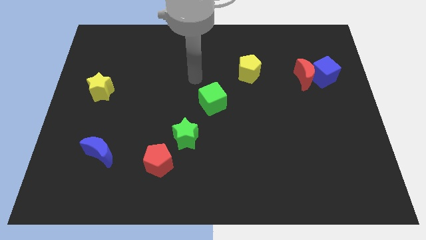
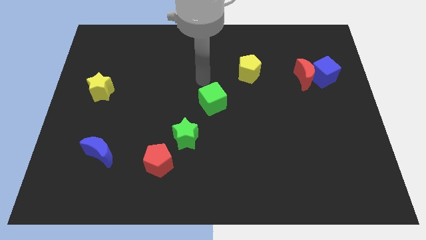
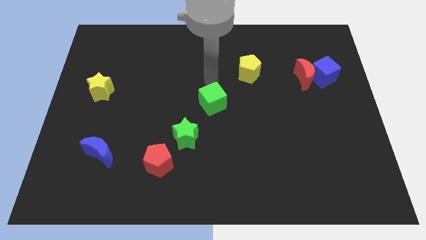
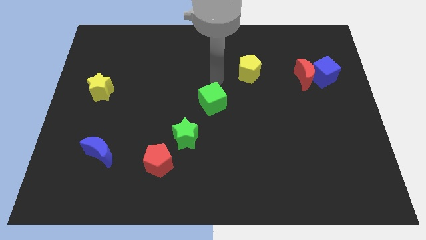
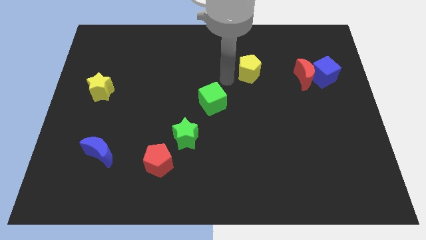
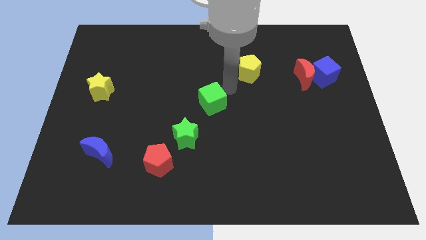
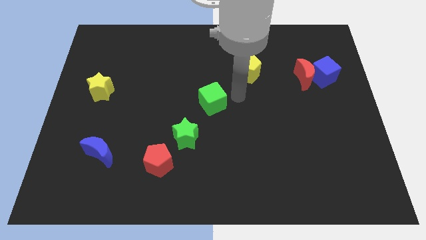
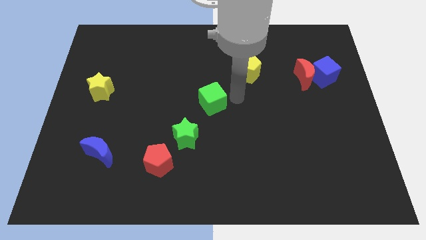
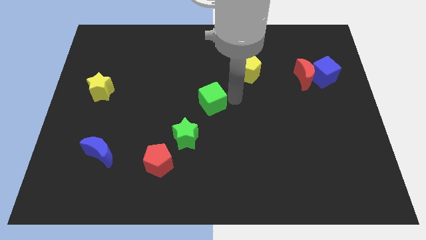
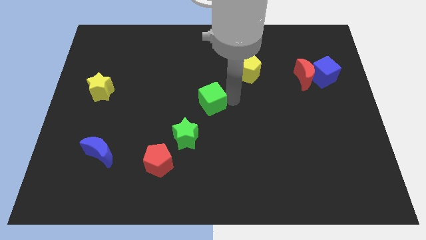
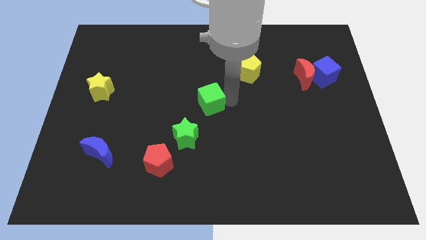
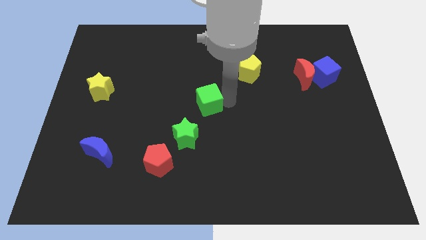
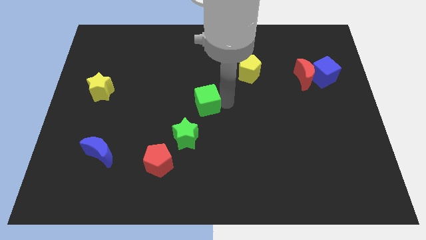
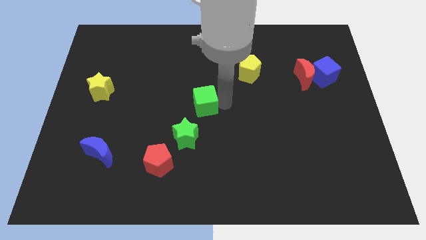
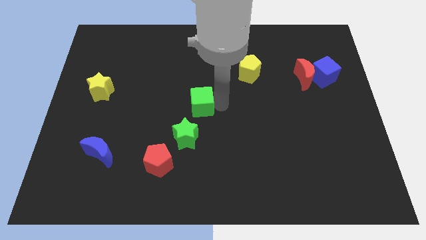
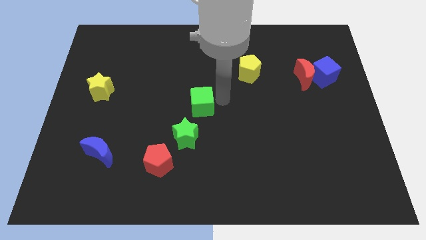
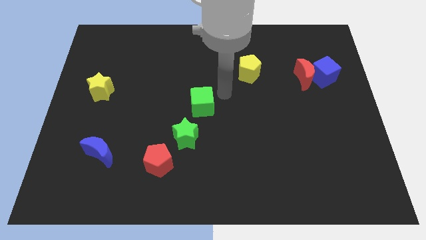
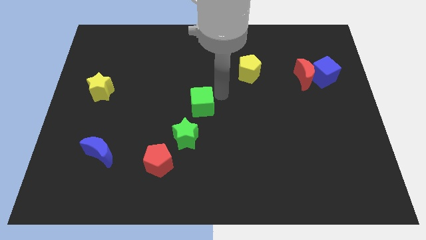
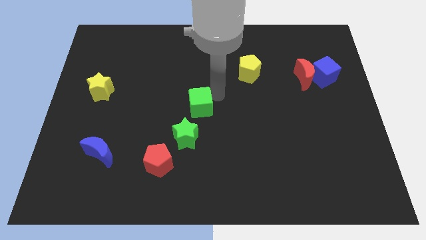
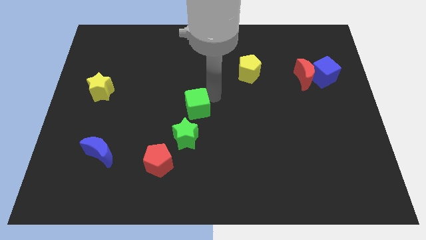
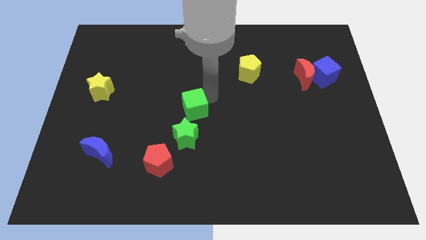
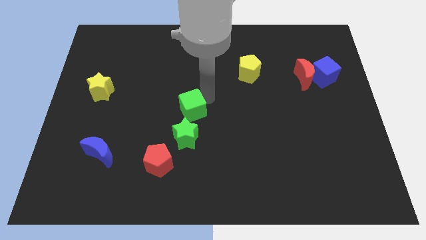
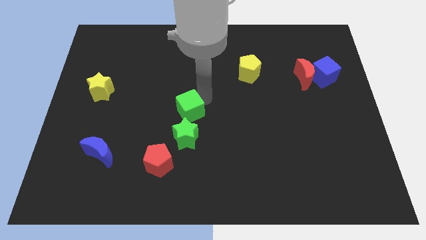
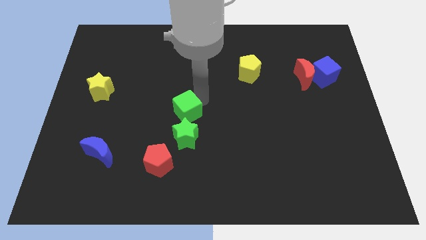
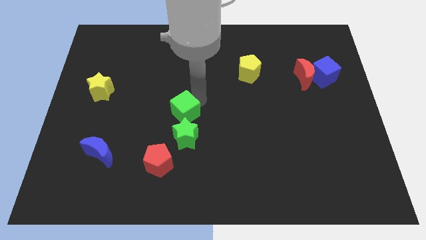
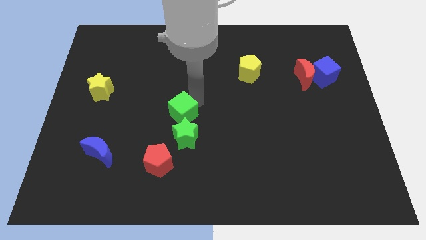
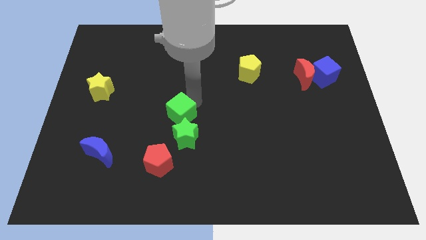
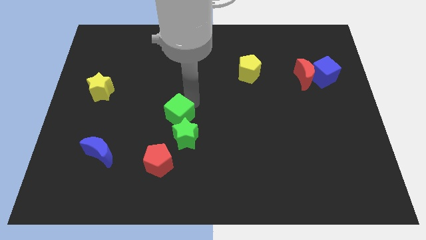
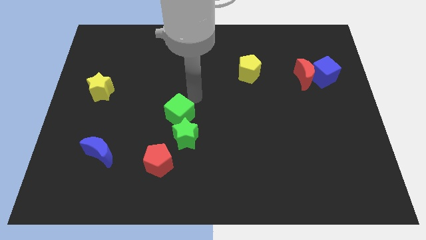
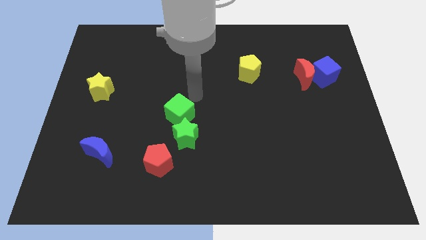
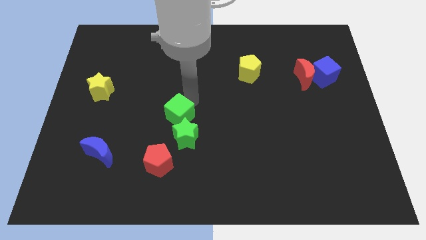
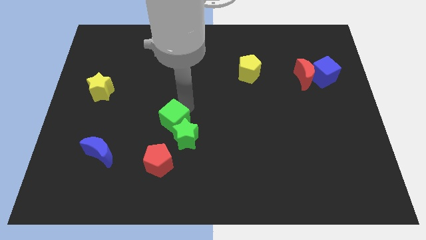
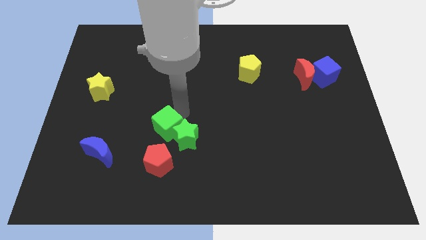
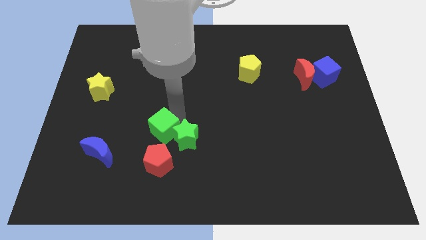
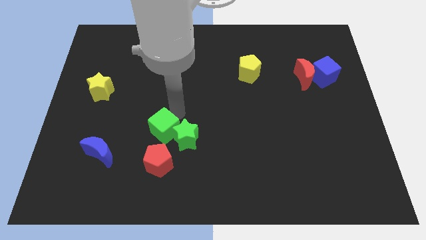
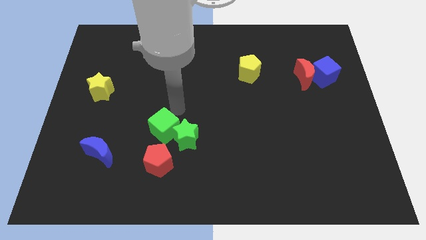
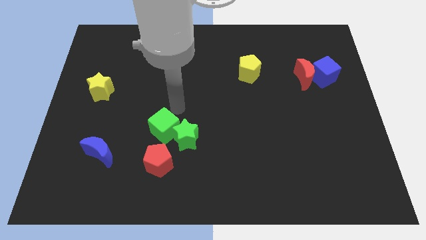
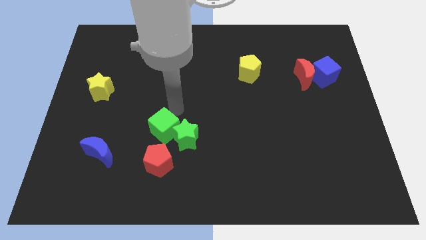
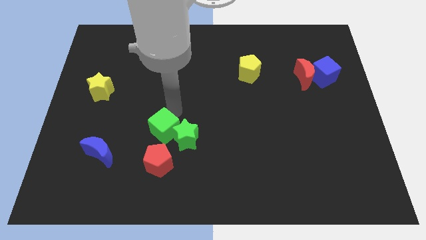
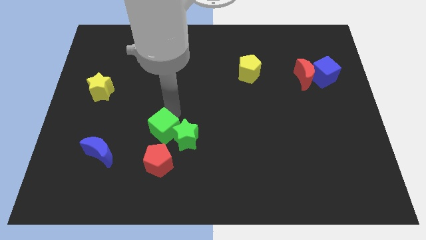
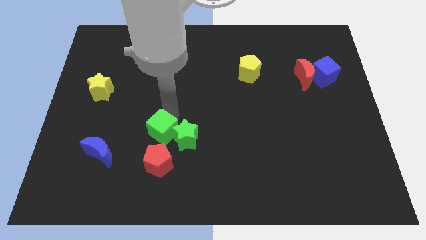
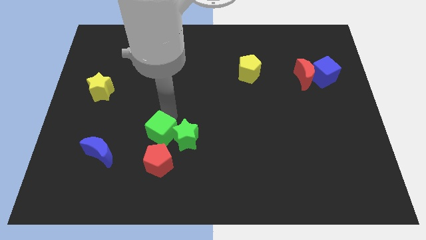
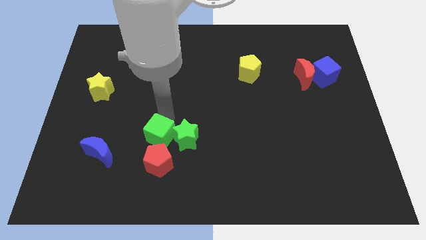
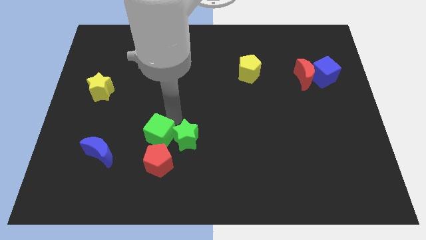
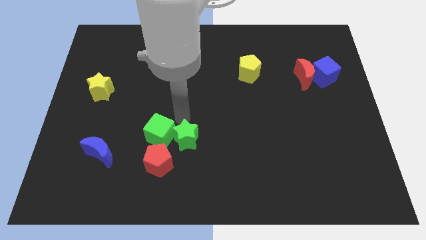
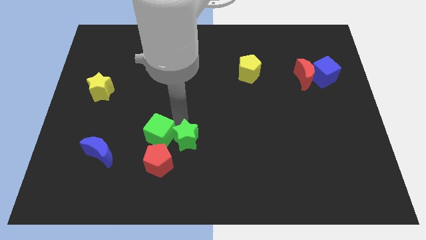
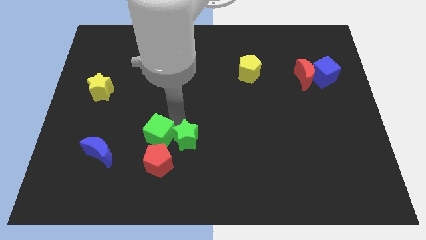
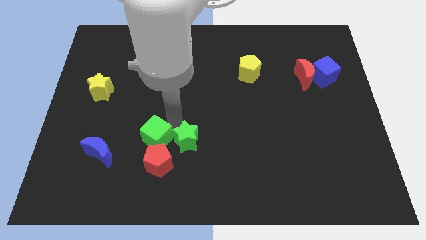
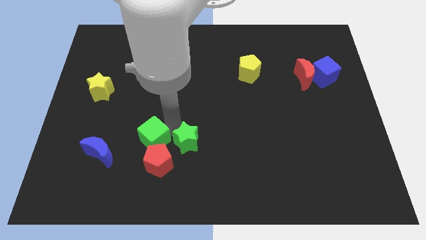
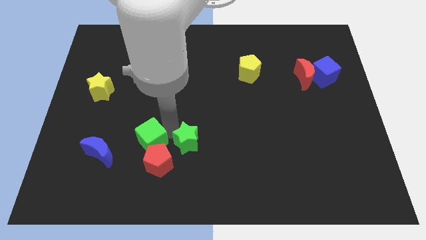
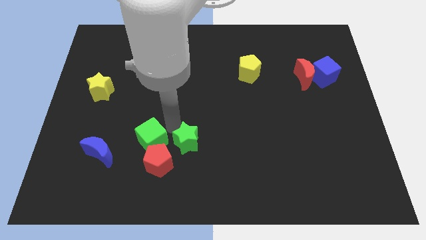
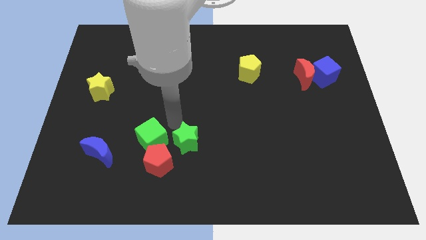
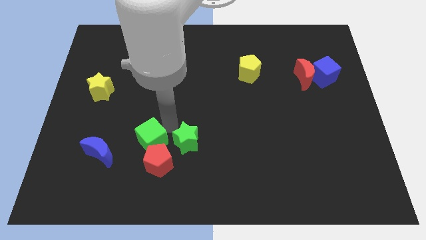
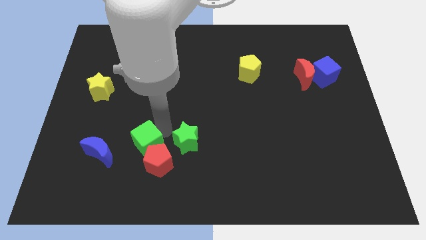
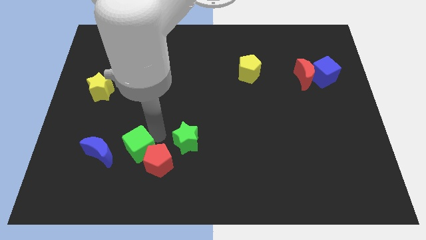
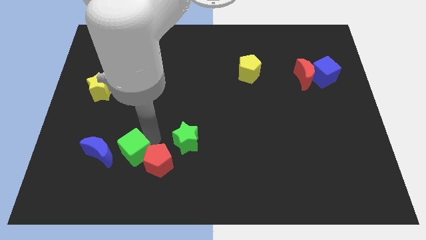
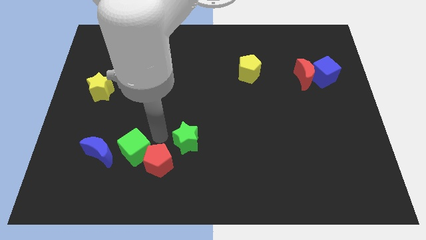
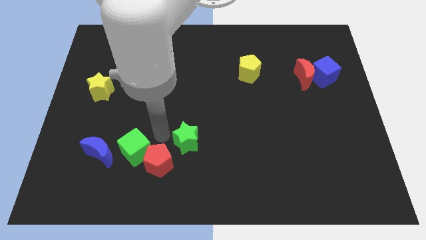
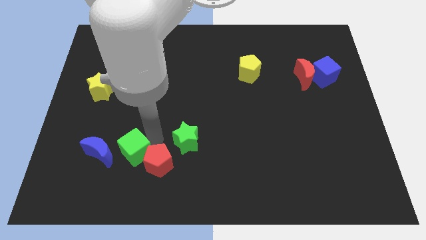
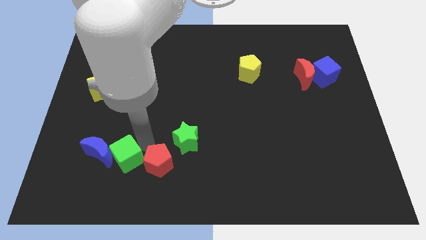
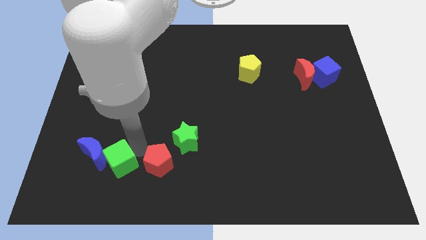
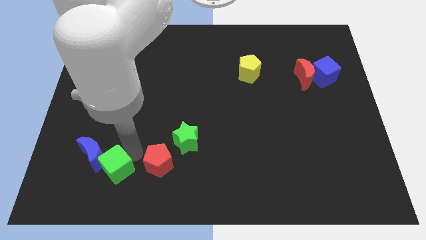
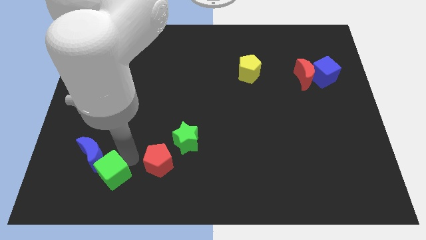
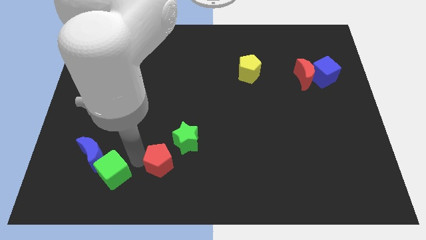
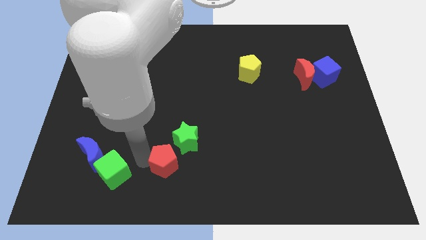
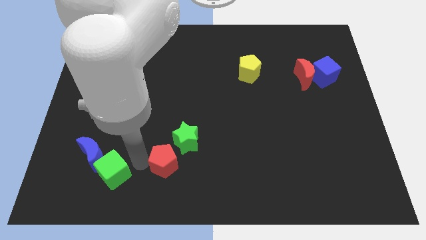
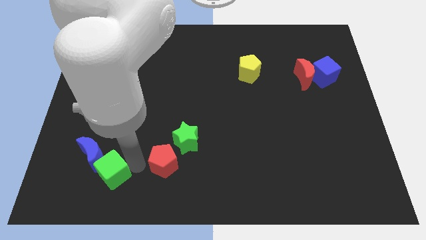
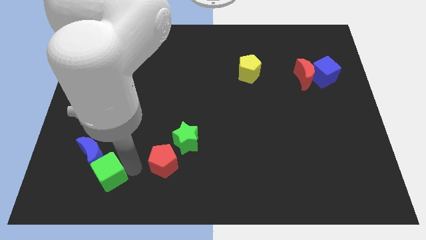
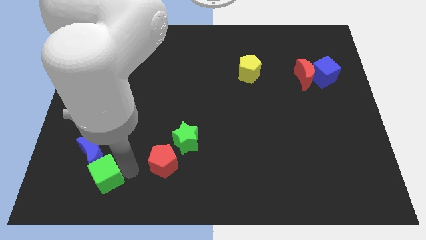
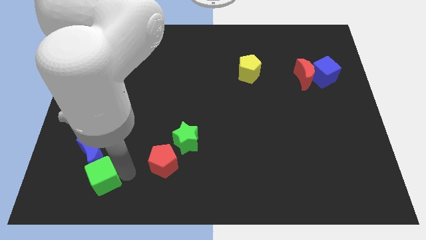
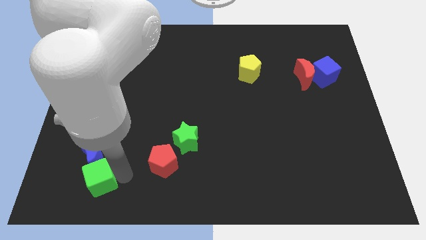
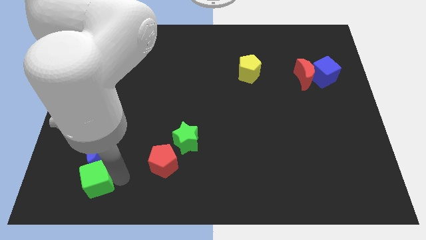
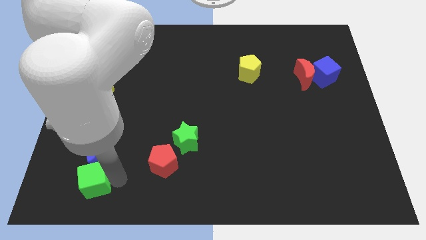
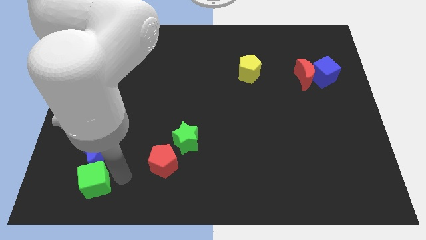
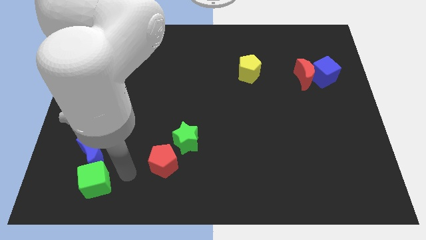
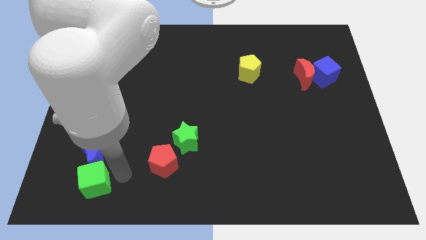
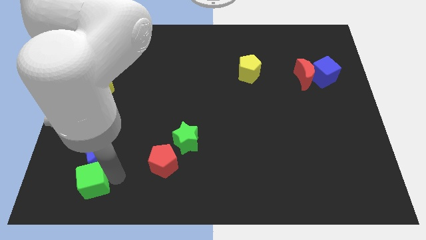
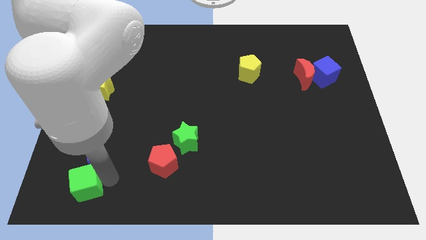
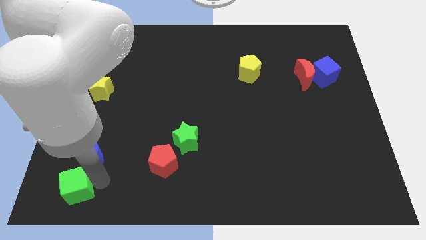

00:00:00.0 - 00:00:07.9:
move the green cube to the bottom left of the board
